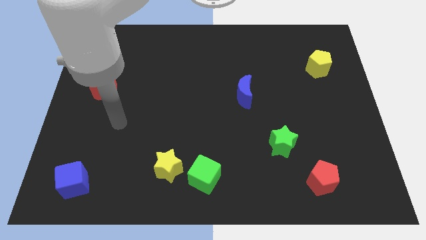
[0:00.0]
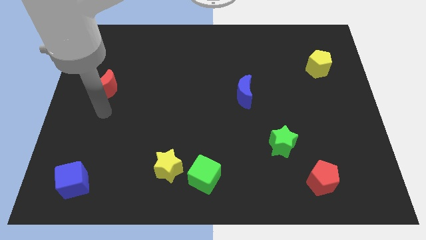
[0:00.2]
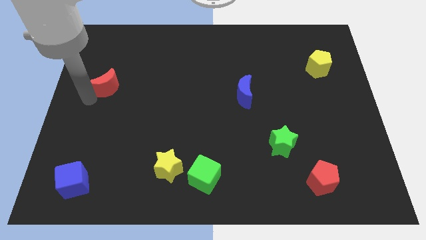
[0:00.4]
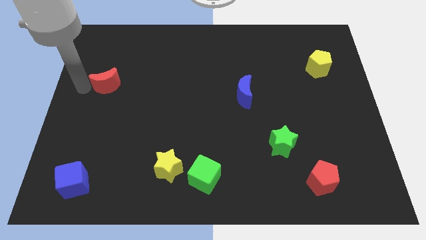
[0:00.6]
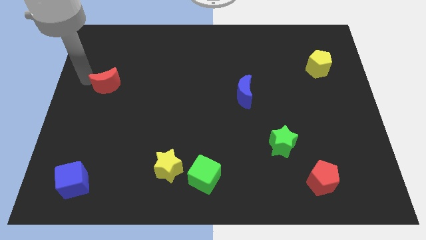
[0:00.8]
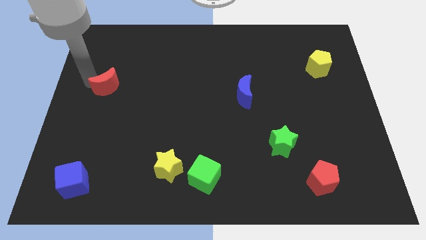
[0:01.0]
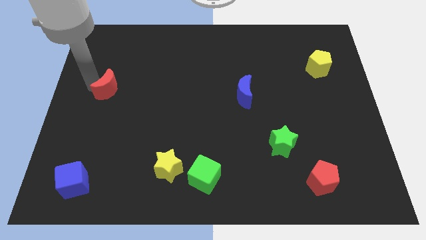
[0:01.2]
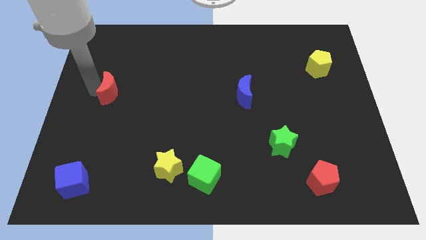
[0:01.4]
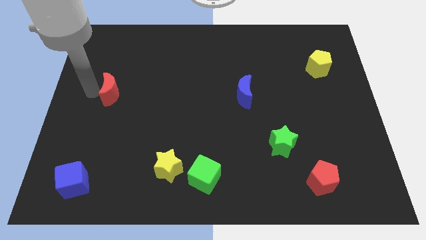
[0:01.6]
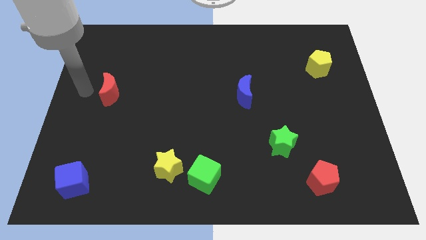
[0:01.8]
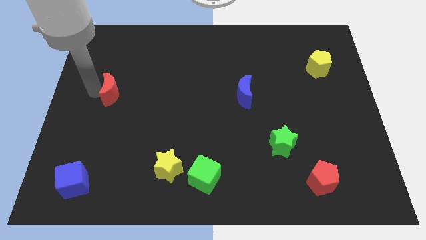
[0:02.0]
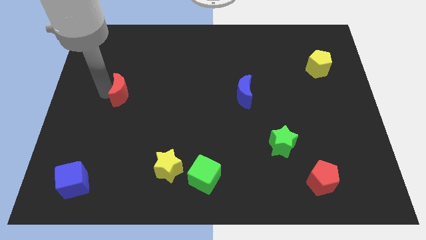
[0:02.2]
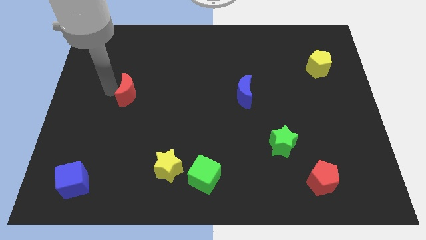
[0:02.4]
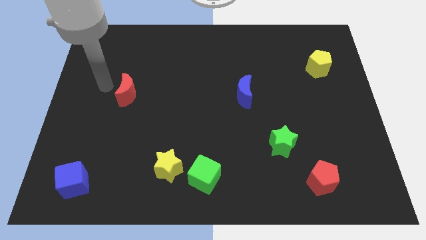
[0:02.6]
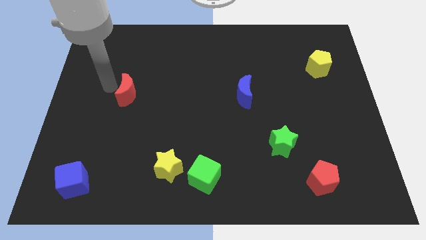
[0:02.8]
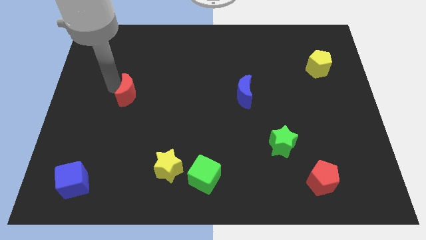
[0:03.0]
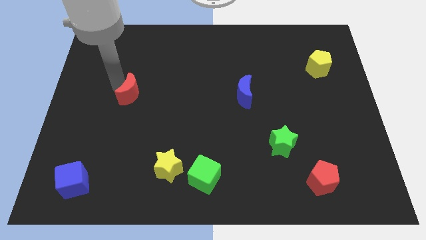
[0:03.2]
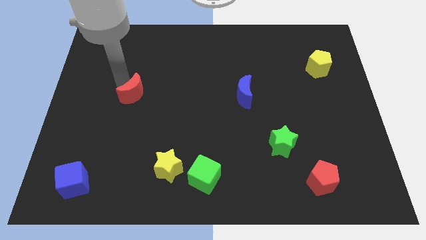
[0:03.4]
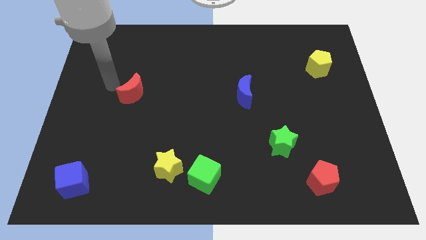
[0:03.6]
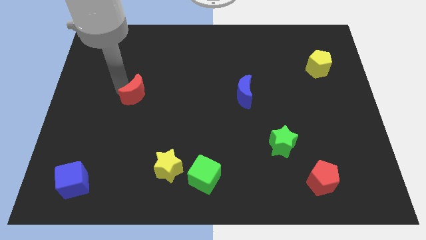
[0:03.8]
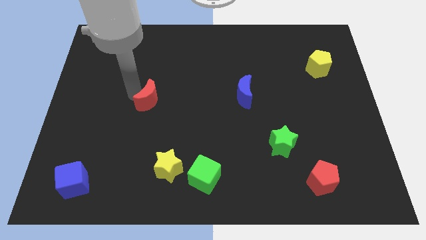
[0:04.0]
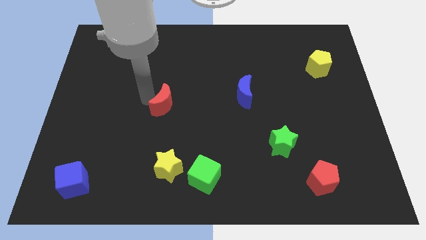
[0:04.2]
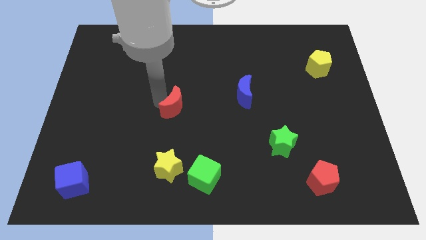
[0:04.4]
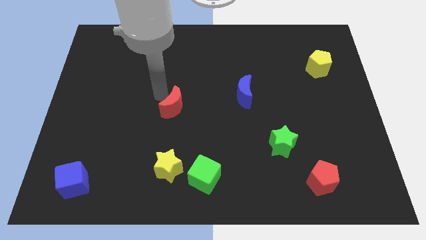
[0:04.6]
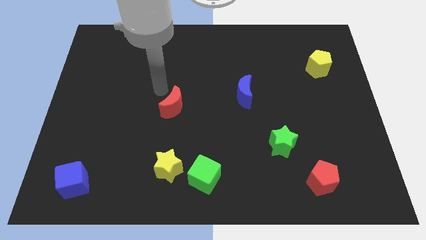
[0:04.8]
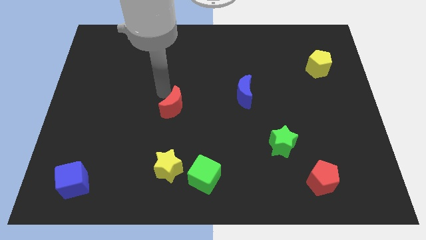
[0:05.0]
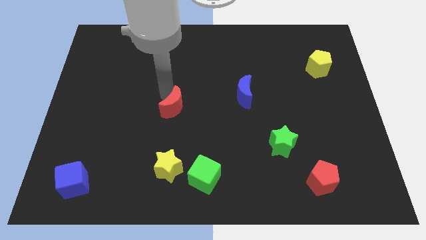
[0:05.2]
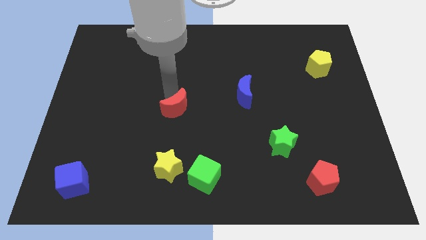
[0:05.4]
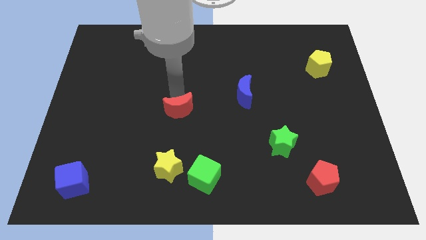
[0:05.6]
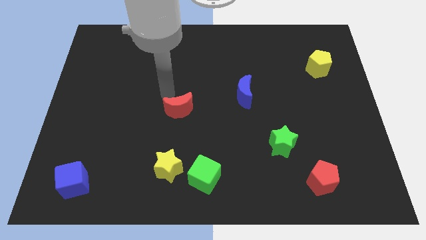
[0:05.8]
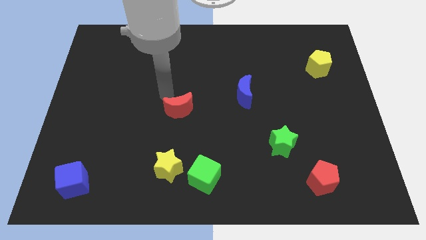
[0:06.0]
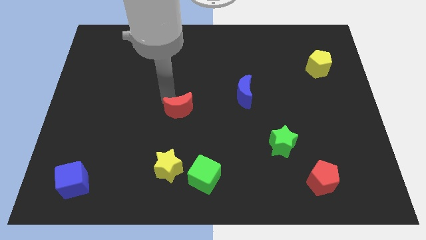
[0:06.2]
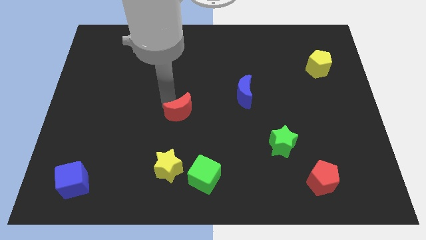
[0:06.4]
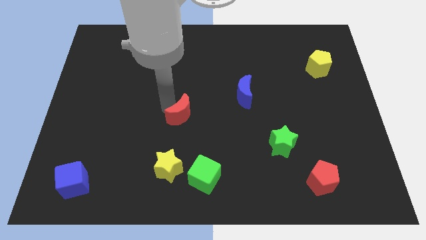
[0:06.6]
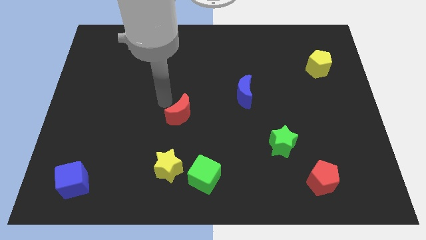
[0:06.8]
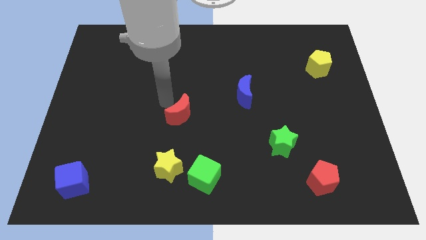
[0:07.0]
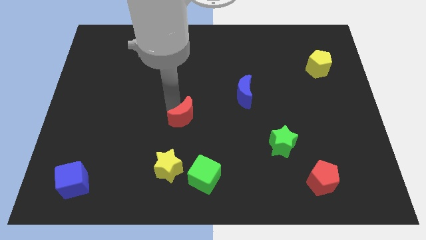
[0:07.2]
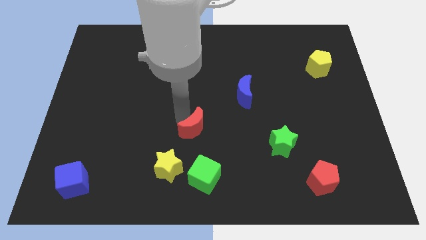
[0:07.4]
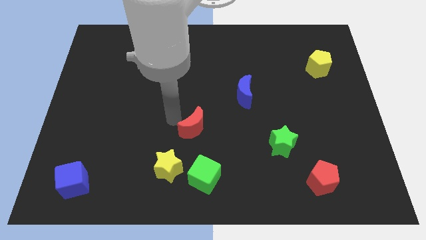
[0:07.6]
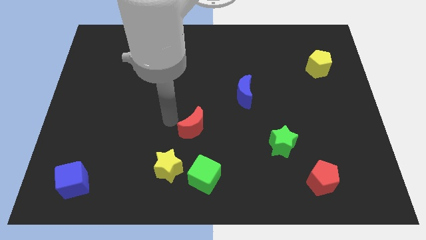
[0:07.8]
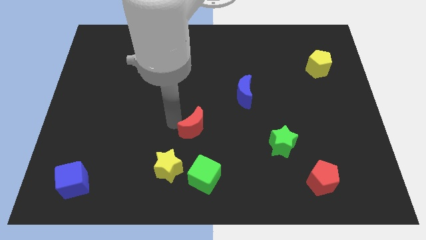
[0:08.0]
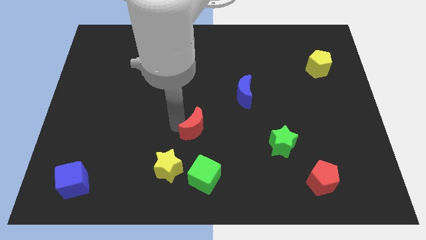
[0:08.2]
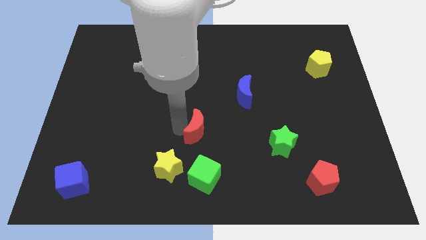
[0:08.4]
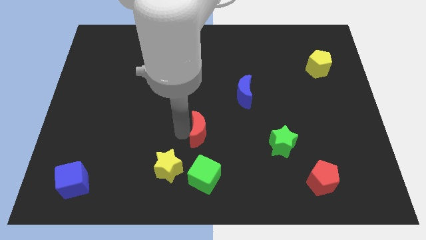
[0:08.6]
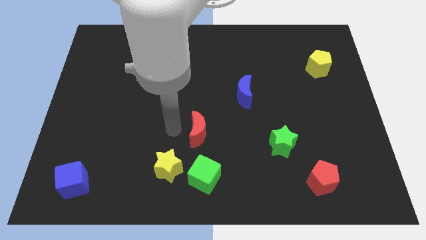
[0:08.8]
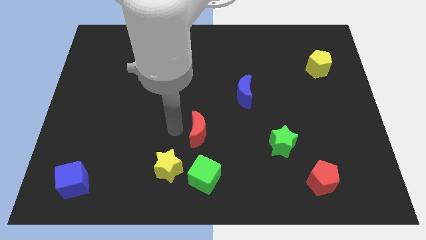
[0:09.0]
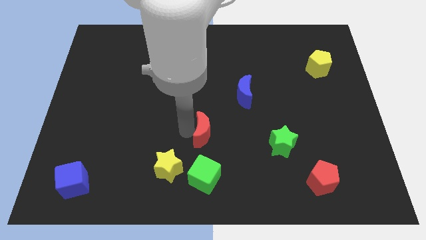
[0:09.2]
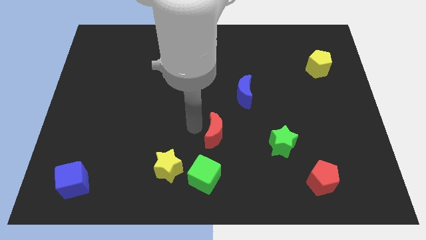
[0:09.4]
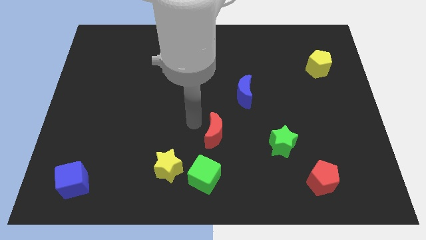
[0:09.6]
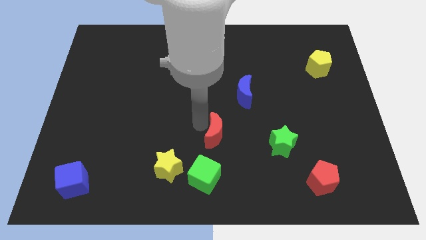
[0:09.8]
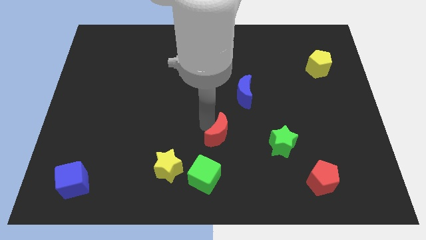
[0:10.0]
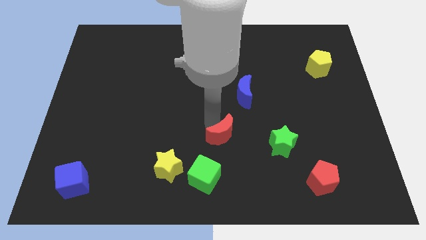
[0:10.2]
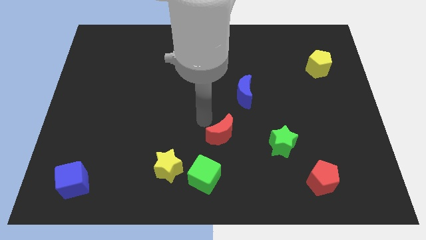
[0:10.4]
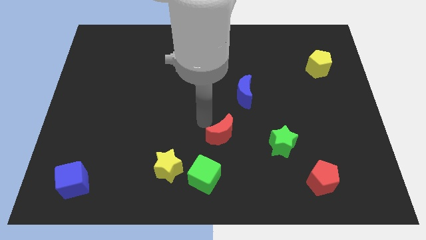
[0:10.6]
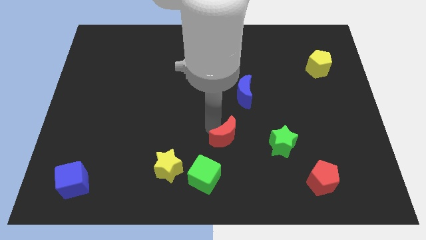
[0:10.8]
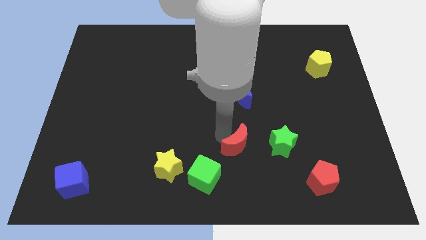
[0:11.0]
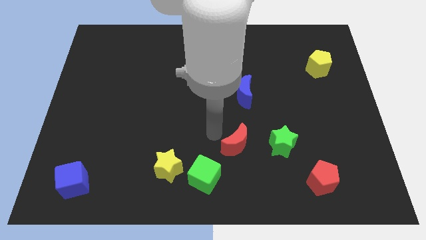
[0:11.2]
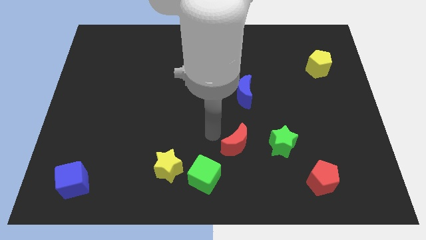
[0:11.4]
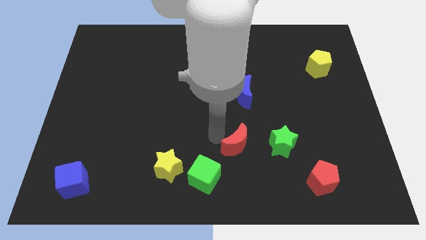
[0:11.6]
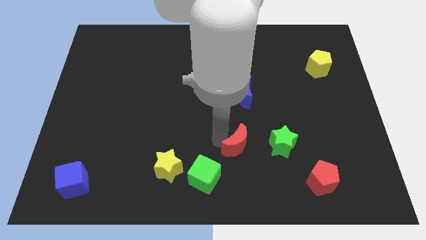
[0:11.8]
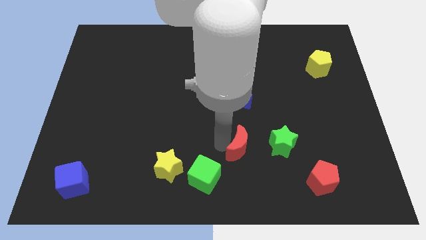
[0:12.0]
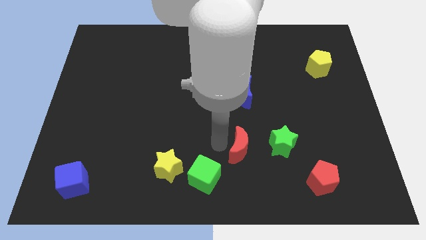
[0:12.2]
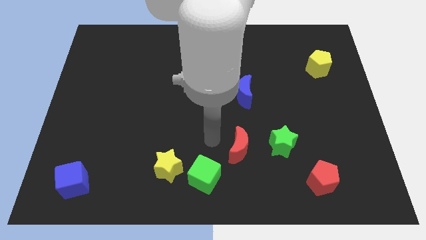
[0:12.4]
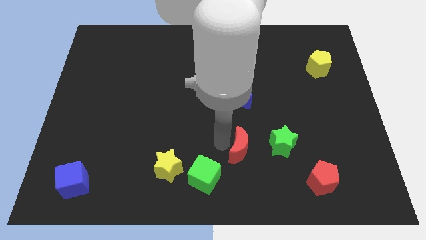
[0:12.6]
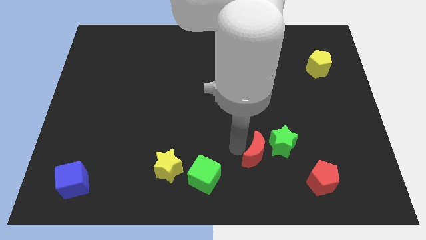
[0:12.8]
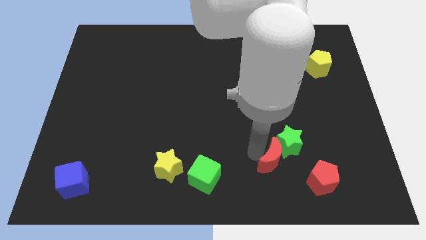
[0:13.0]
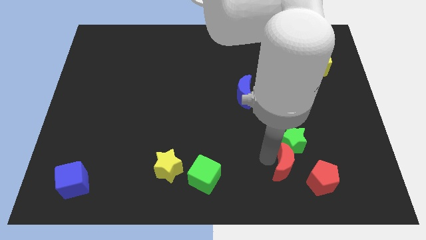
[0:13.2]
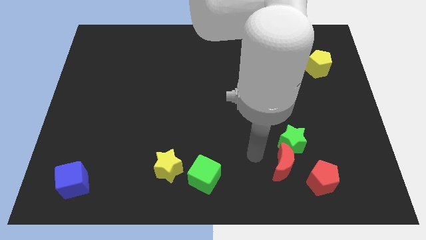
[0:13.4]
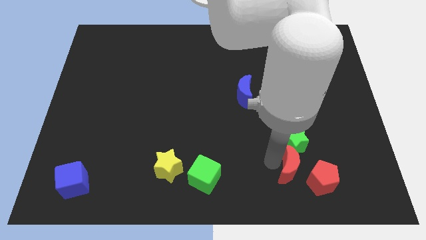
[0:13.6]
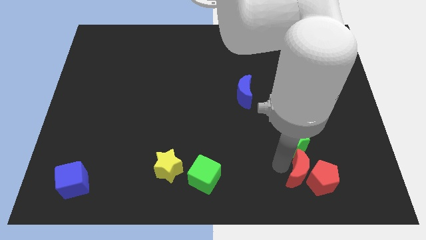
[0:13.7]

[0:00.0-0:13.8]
move the red moon close to the red pentagon
